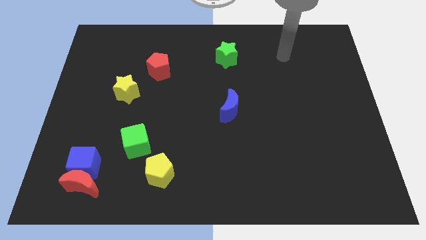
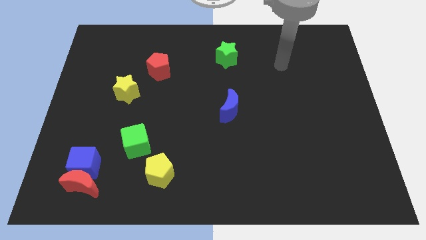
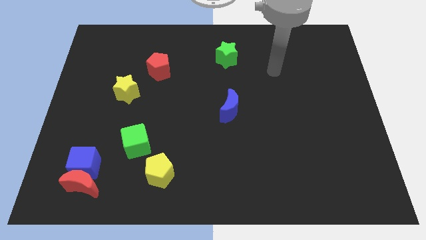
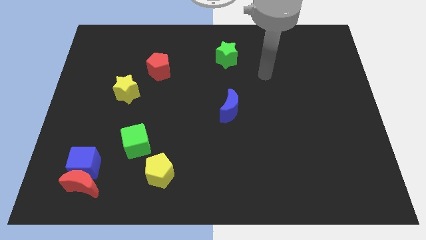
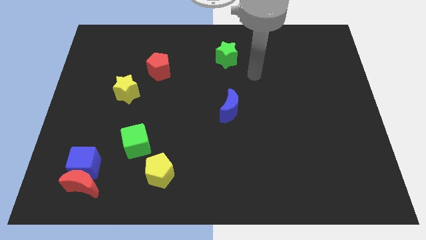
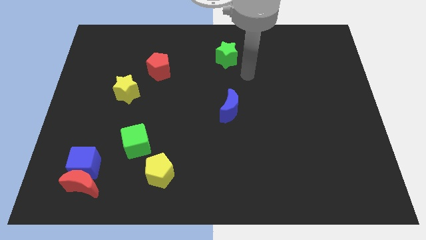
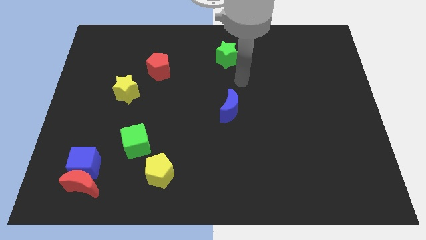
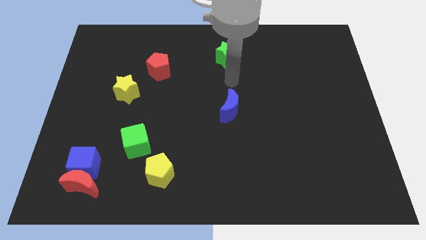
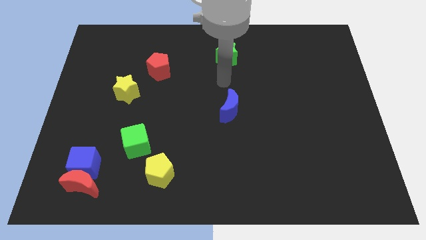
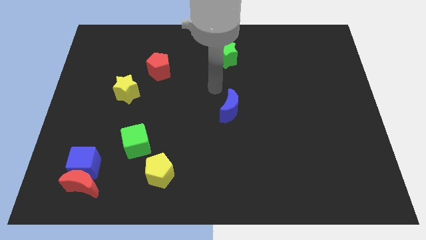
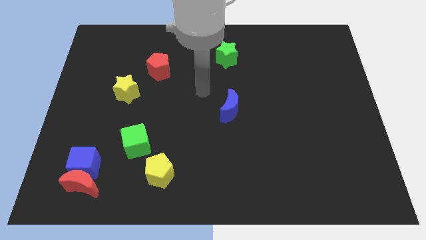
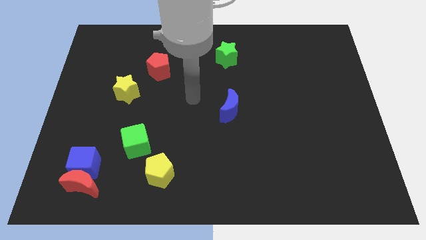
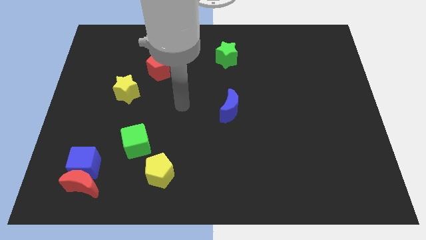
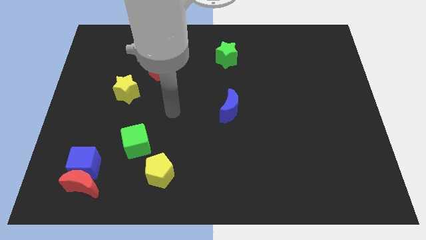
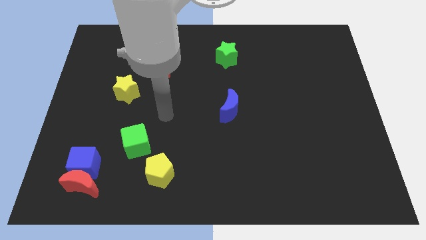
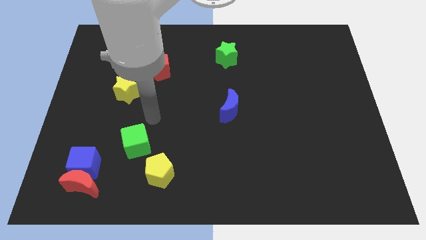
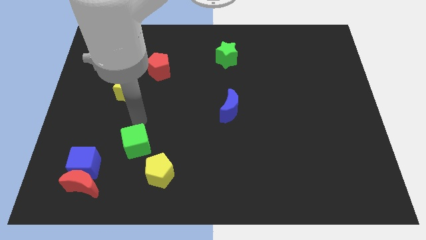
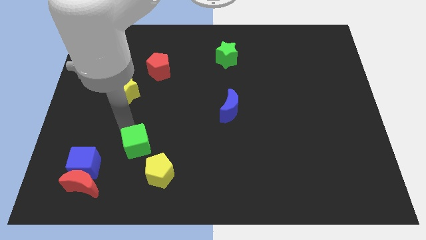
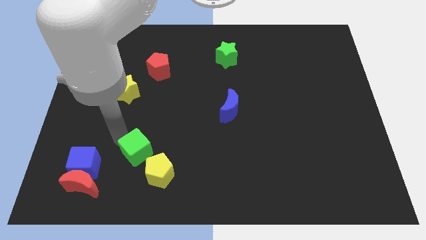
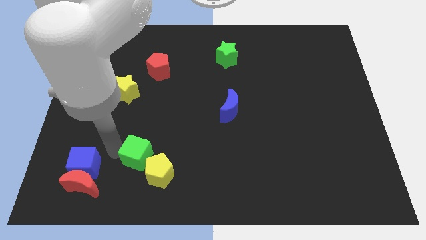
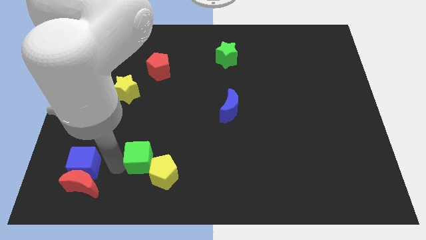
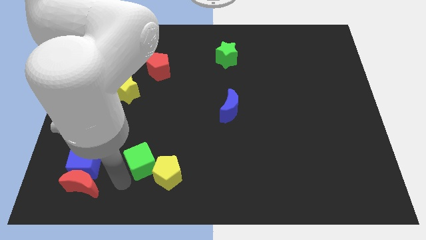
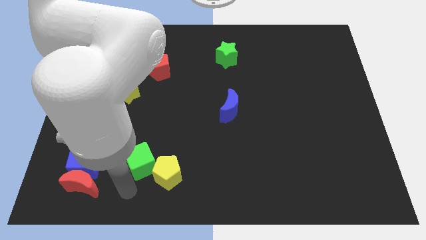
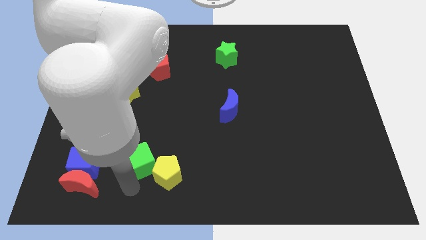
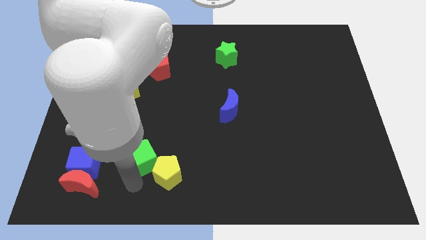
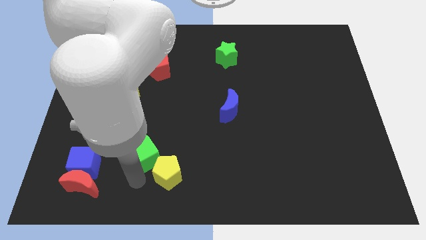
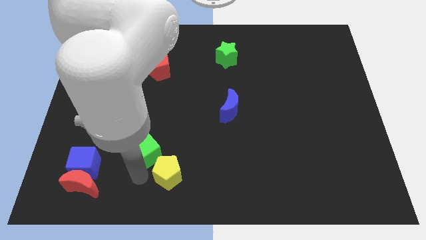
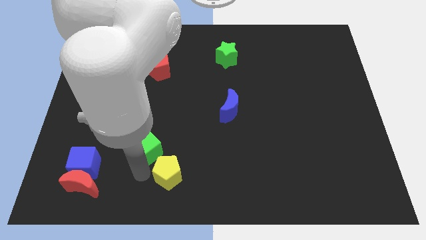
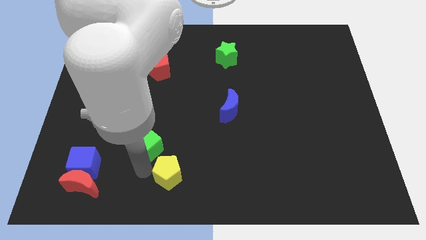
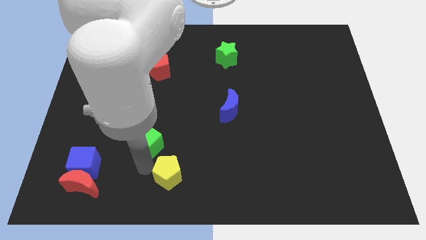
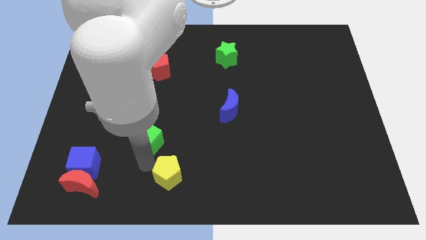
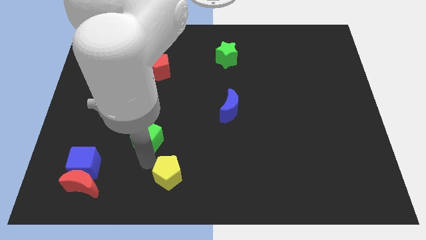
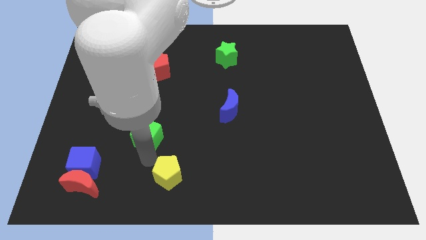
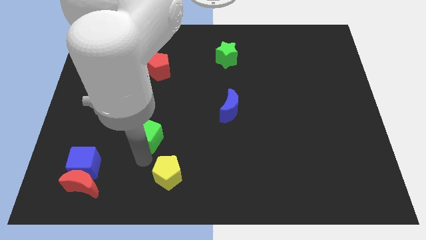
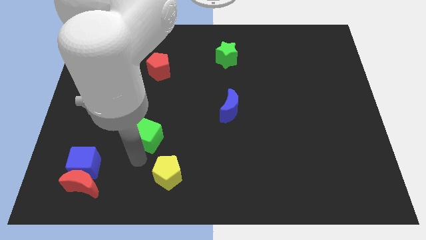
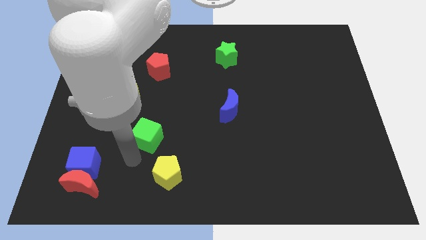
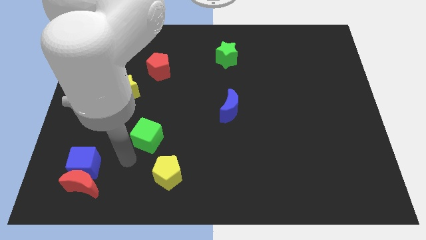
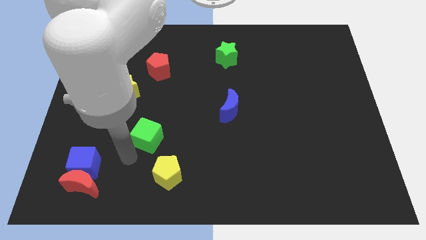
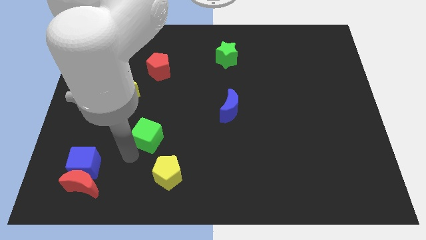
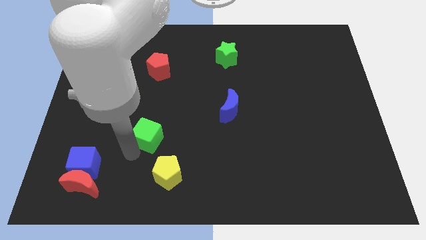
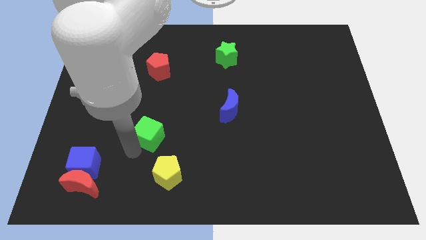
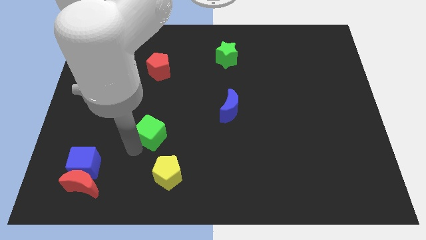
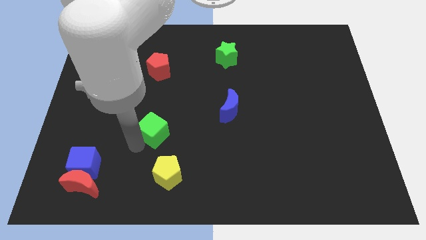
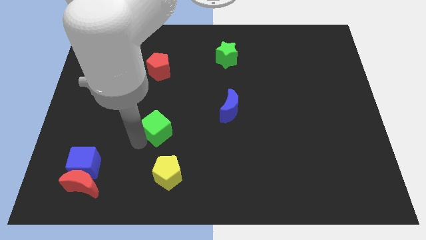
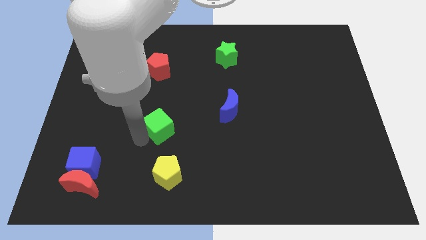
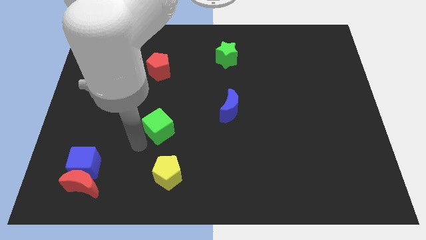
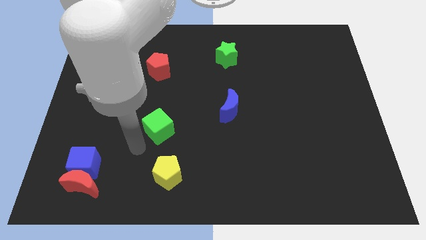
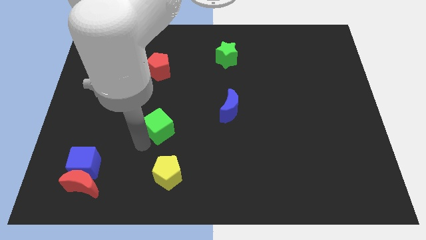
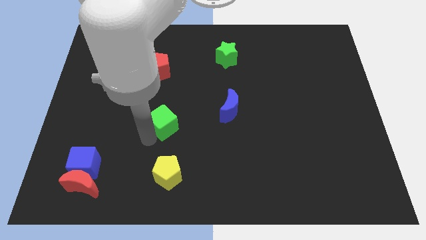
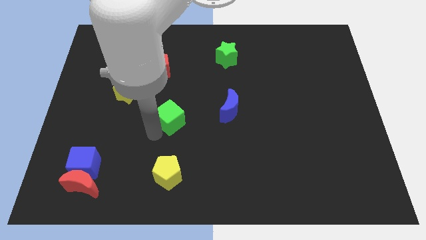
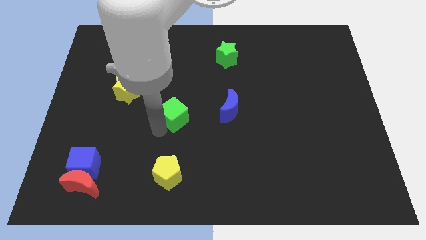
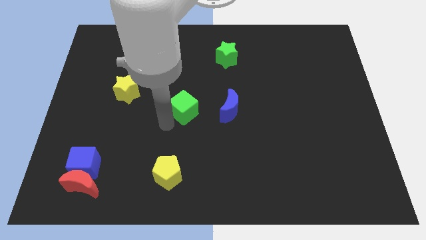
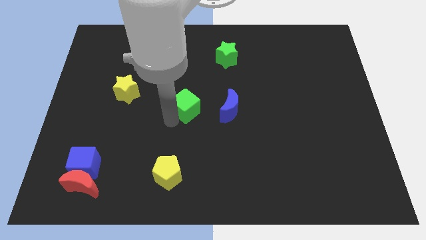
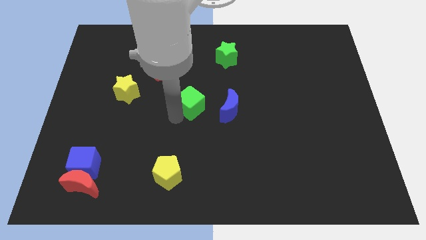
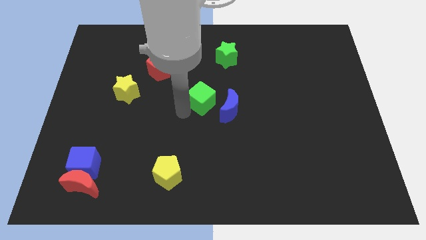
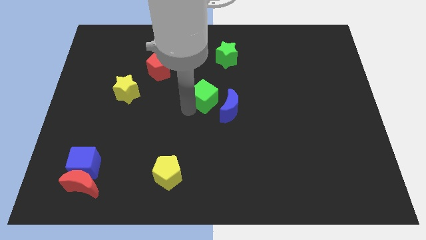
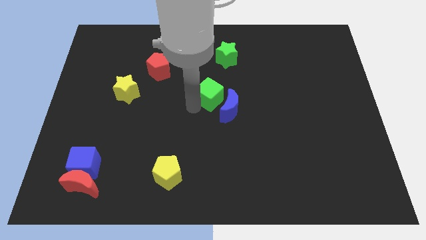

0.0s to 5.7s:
push the green cube up and then right

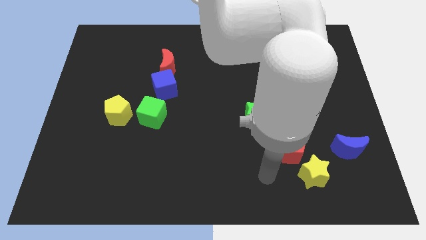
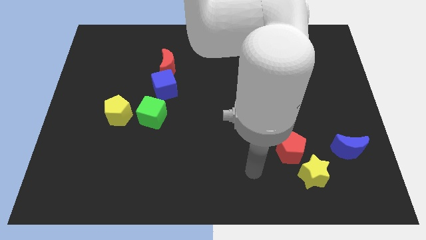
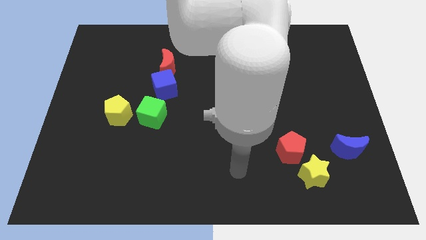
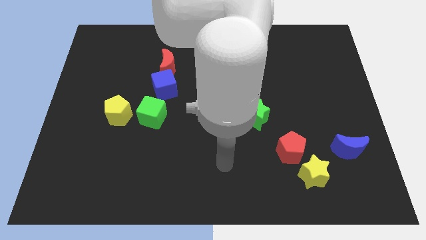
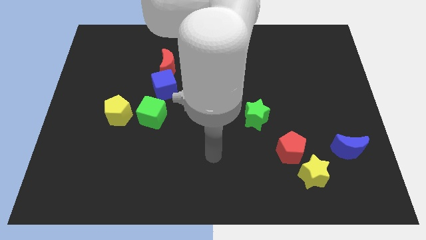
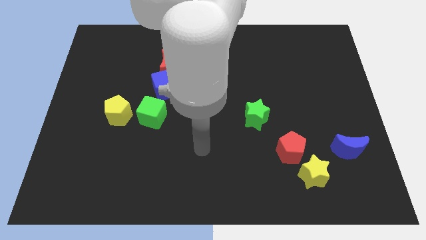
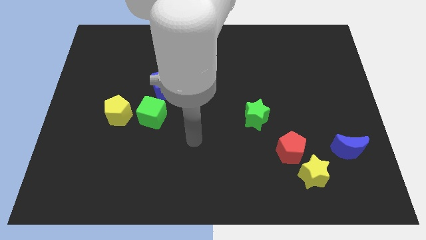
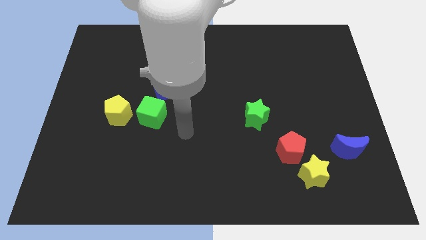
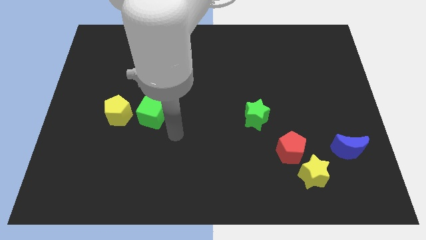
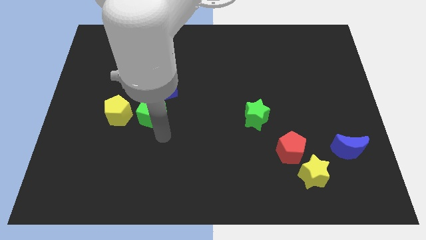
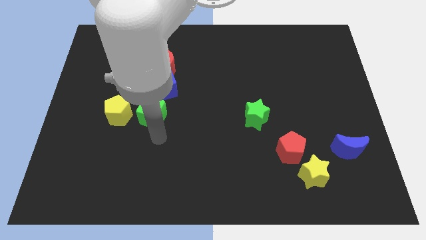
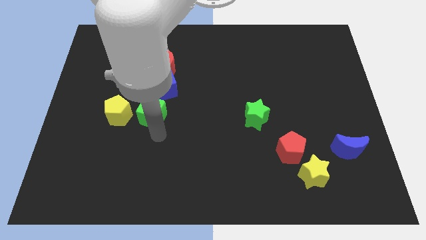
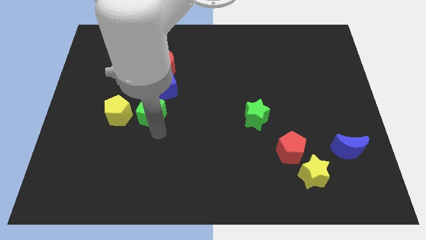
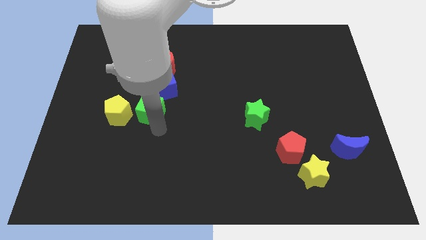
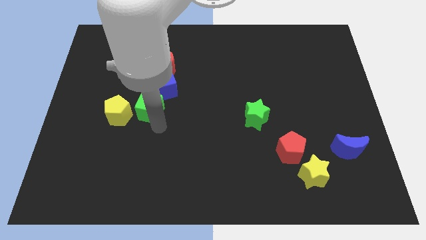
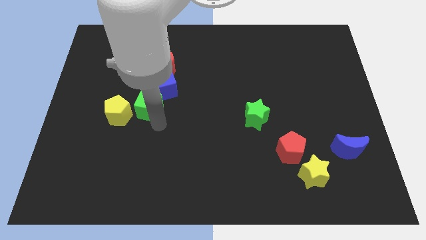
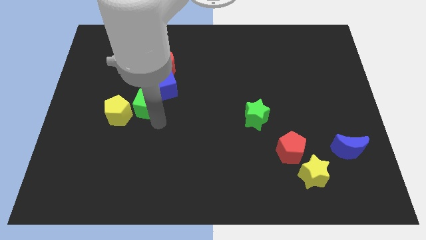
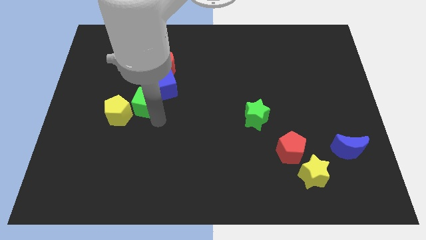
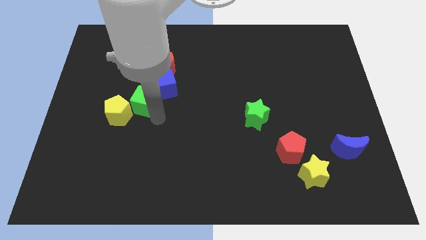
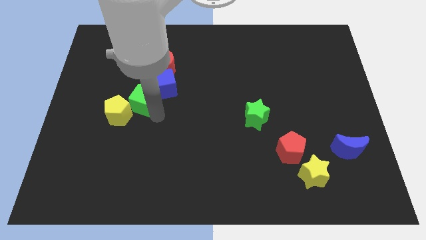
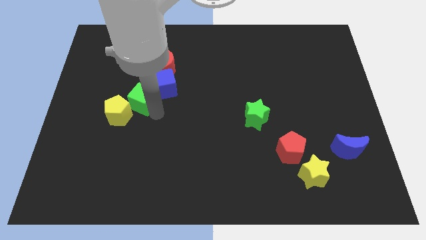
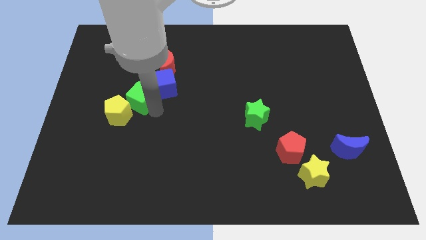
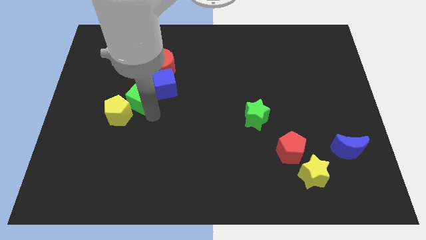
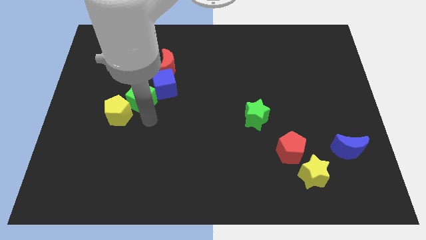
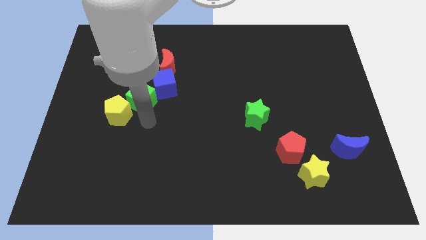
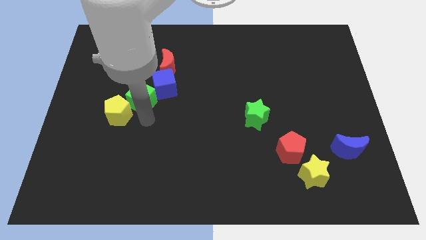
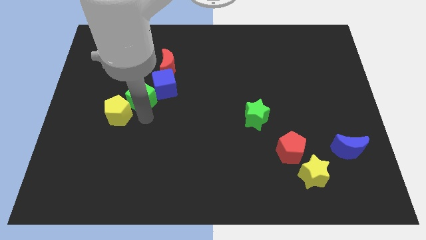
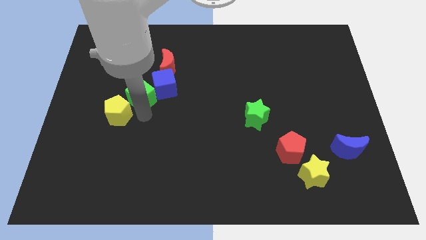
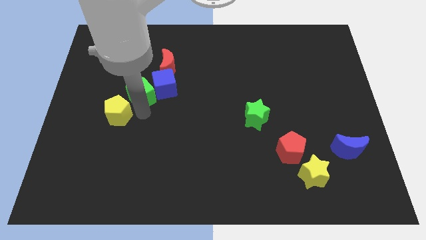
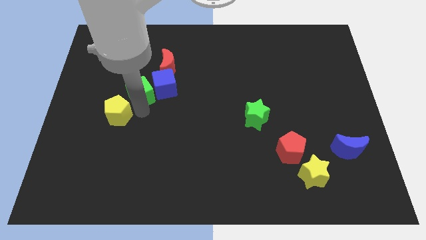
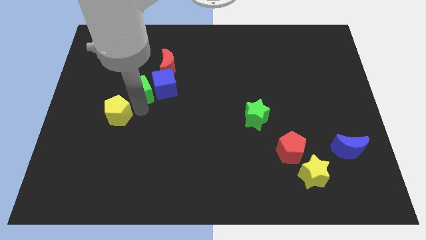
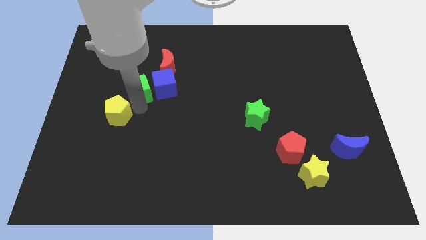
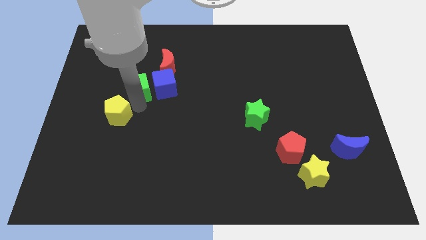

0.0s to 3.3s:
slightly move the green cube upwards
